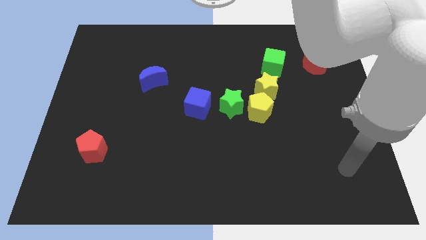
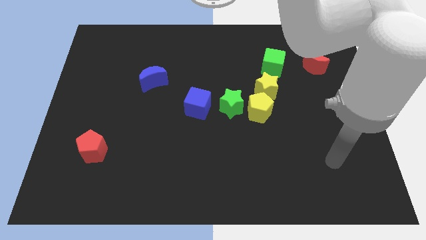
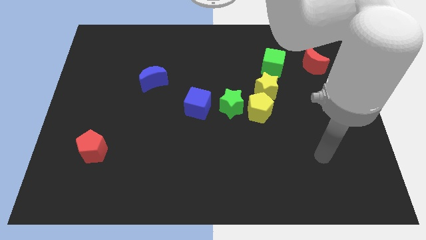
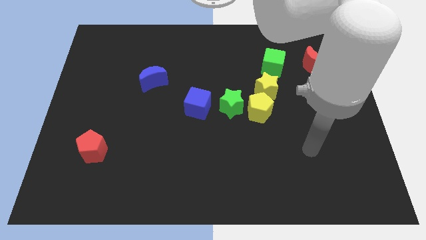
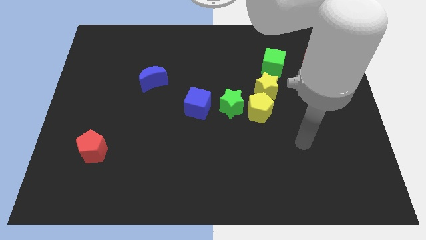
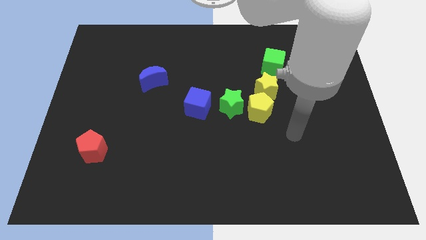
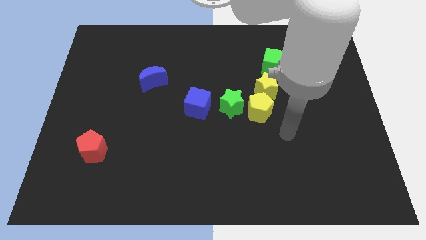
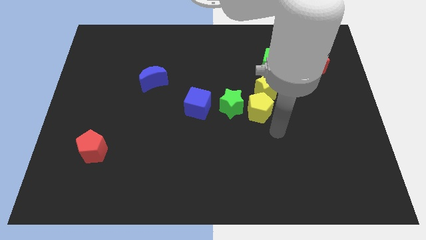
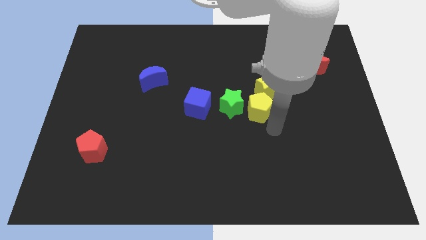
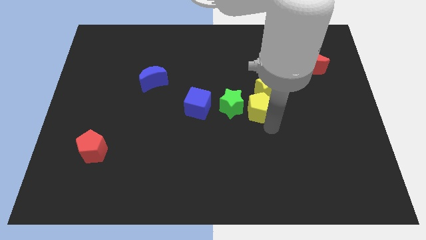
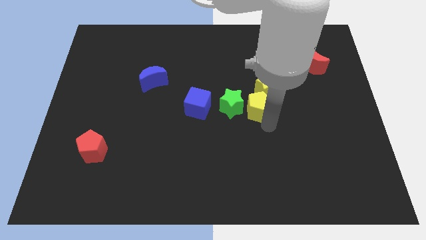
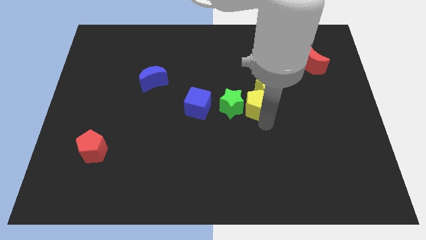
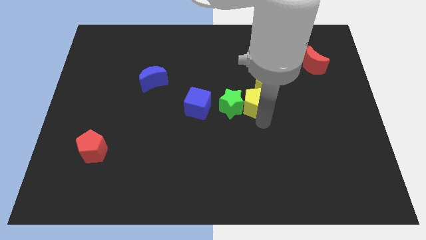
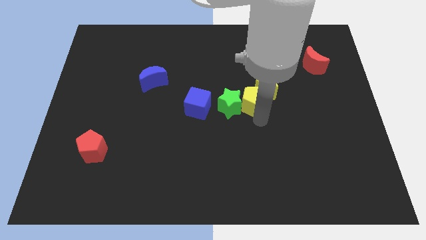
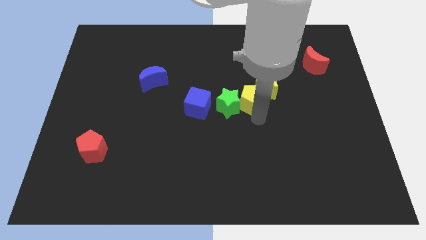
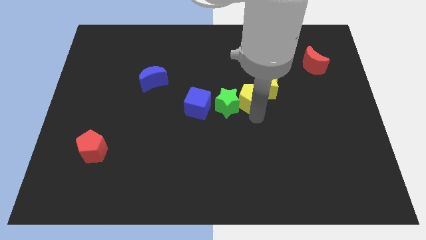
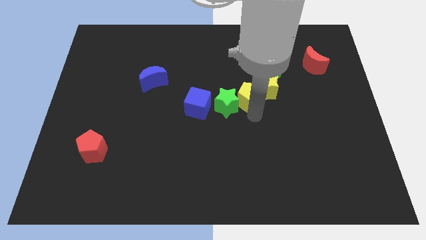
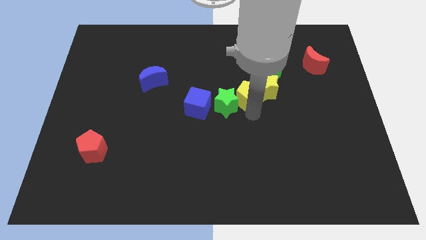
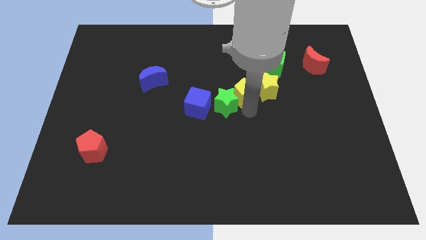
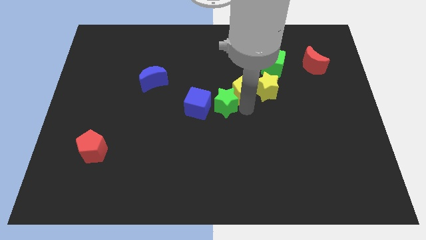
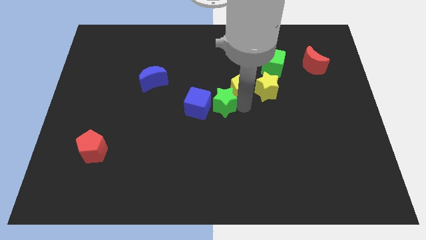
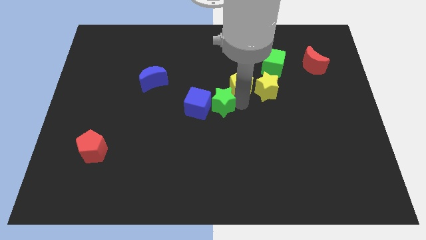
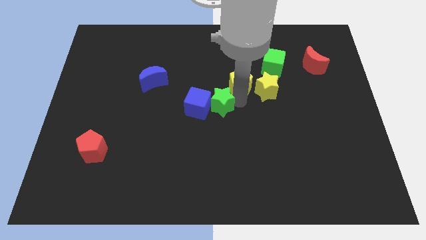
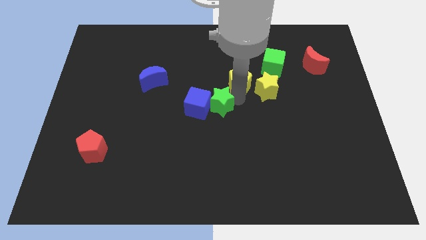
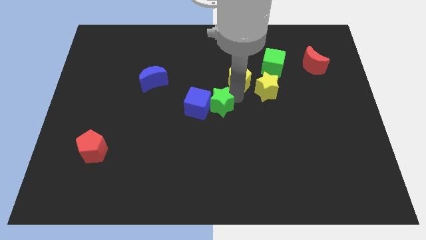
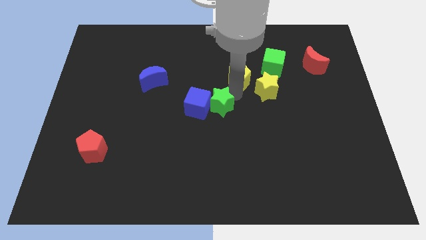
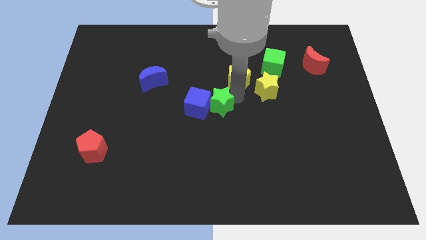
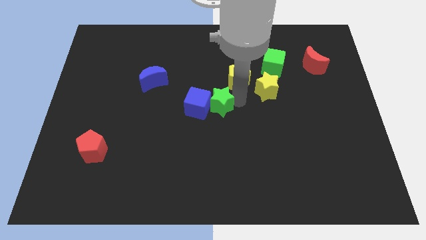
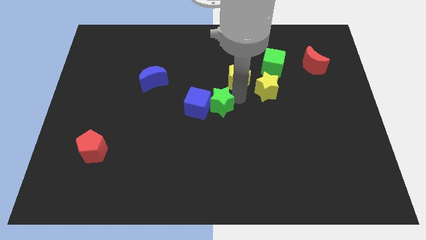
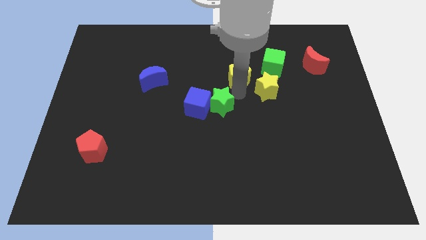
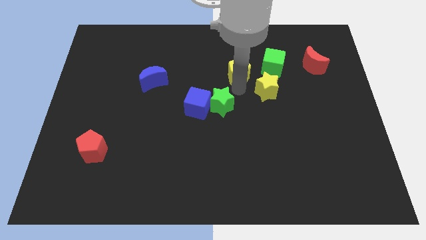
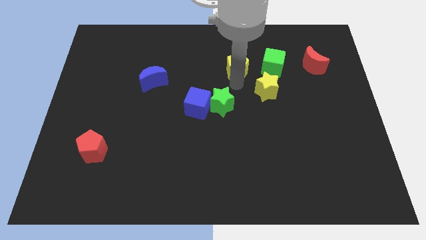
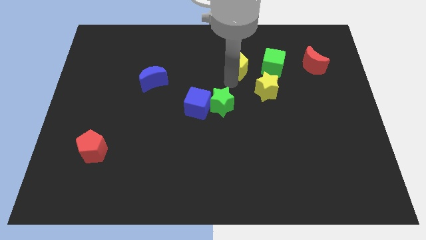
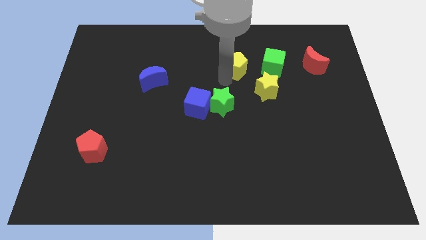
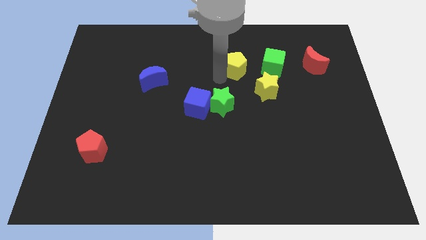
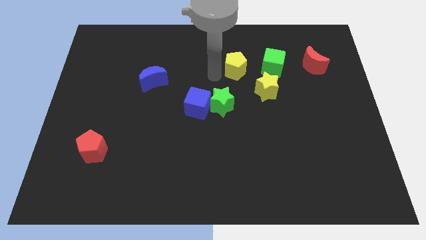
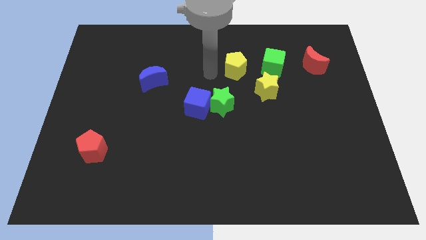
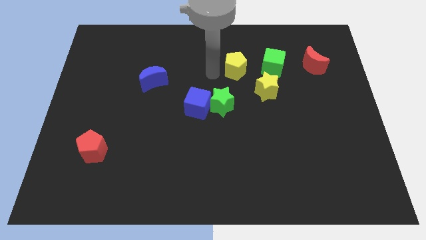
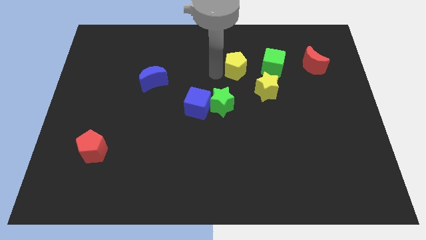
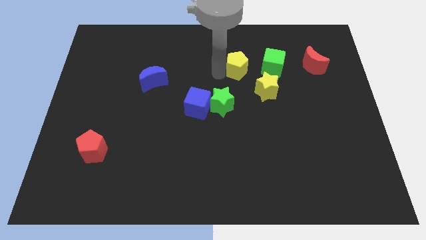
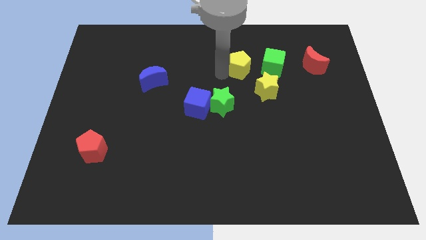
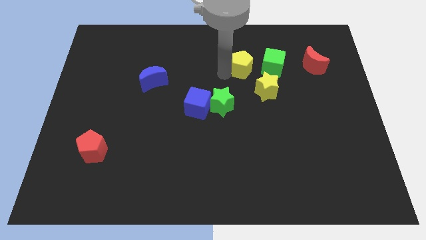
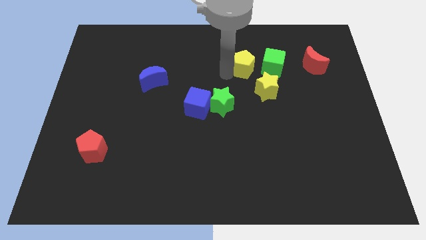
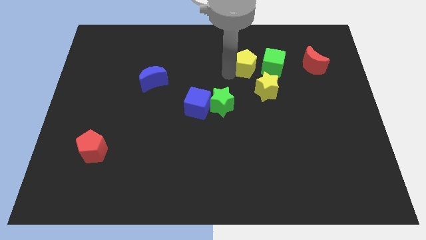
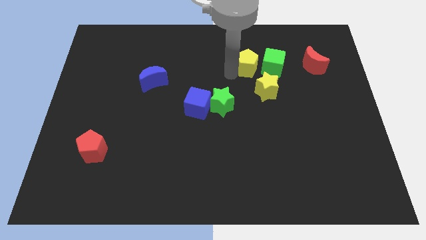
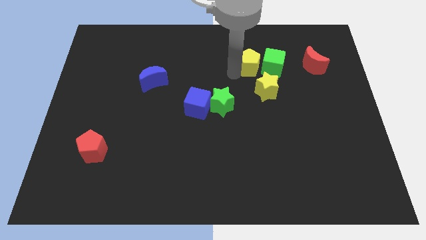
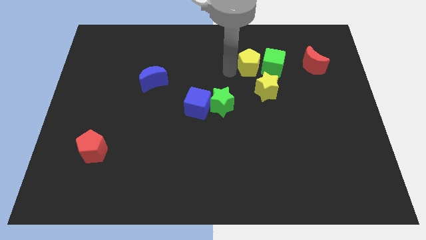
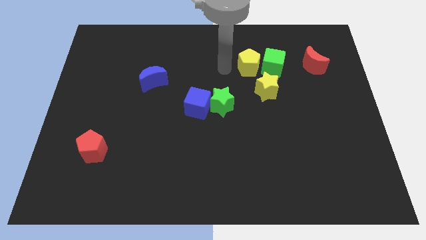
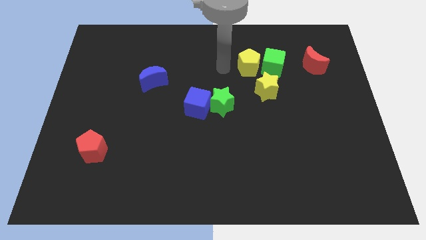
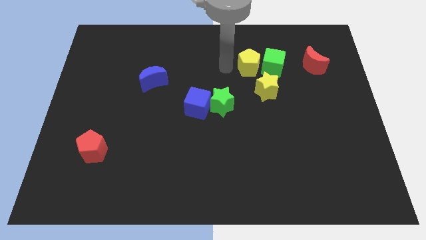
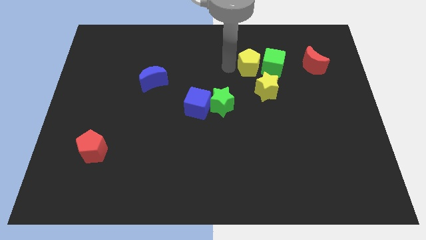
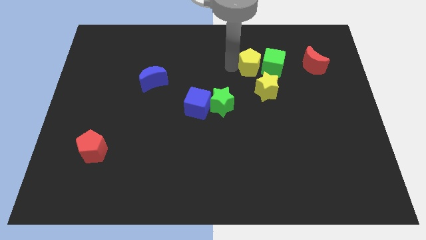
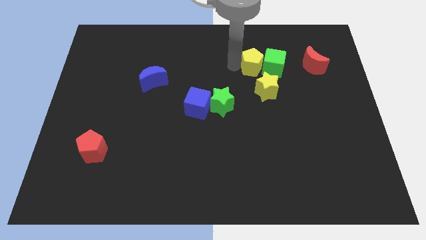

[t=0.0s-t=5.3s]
push the yellow pentagon to the left side of the red moon
